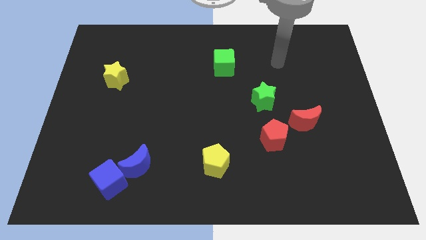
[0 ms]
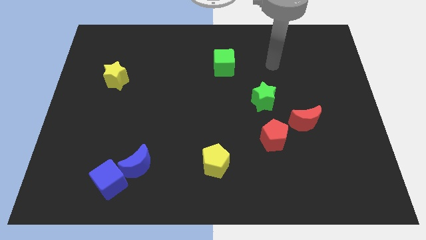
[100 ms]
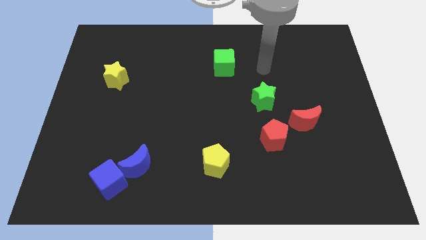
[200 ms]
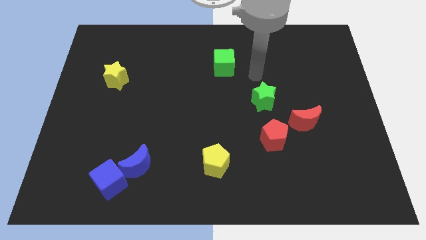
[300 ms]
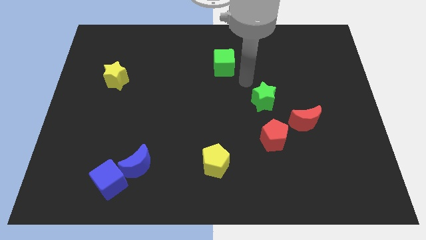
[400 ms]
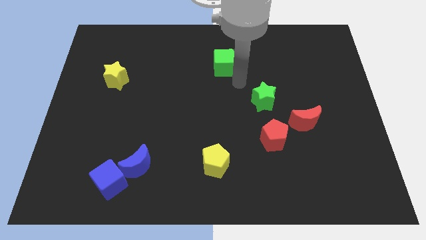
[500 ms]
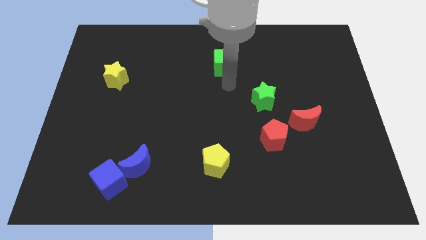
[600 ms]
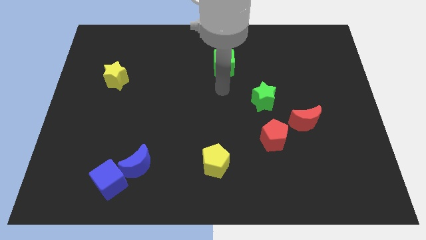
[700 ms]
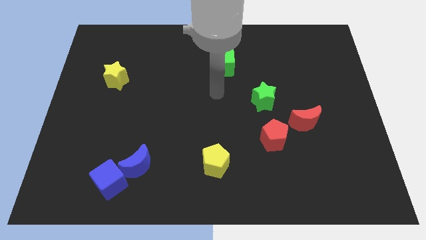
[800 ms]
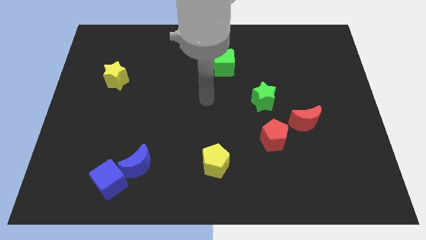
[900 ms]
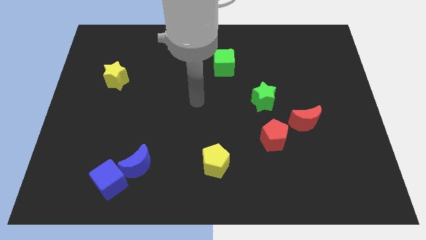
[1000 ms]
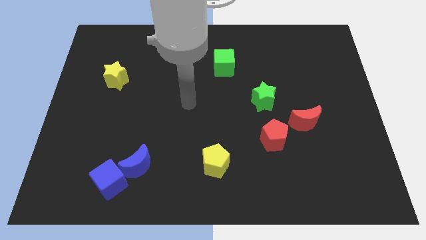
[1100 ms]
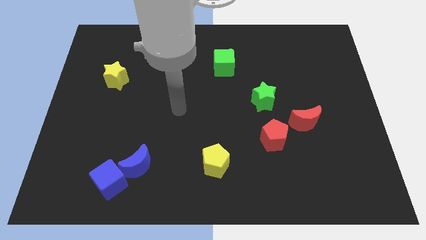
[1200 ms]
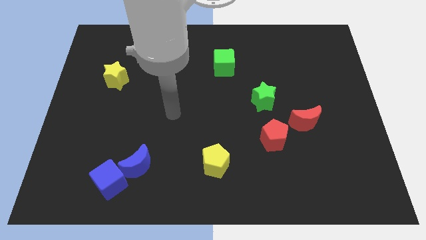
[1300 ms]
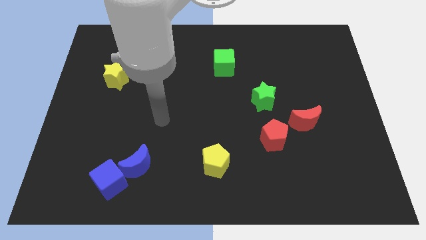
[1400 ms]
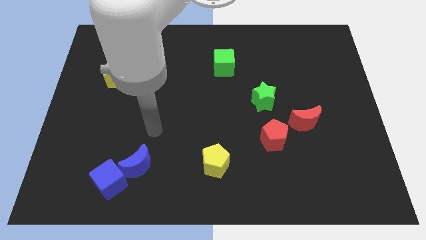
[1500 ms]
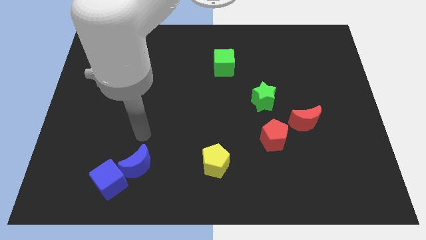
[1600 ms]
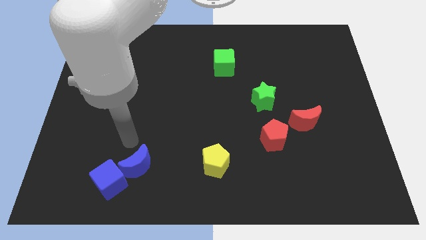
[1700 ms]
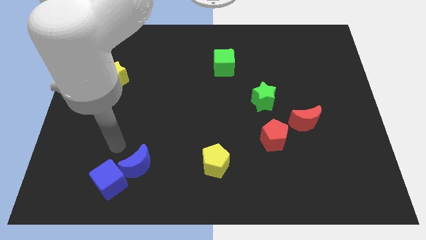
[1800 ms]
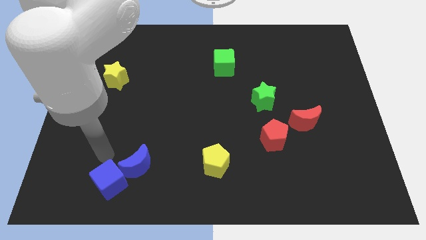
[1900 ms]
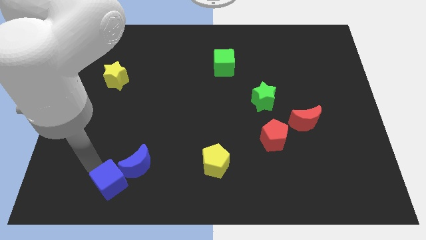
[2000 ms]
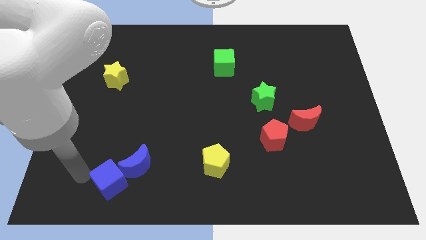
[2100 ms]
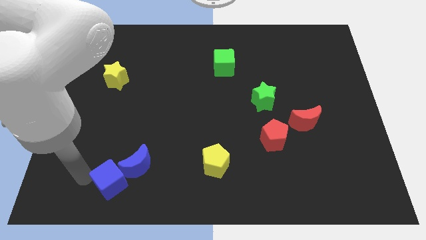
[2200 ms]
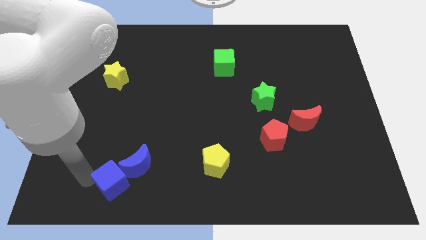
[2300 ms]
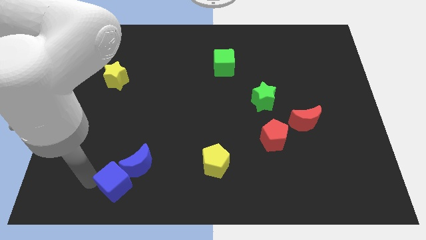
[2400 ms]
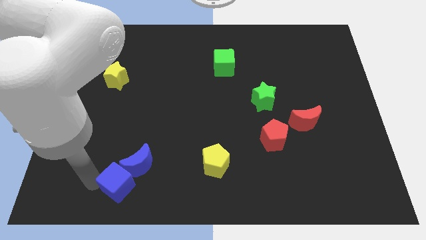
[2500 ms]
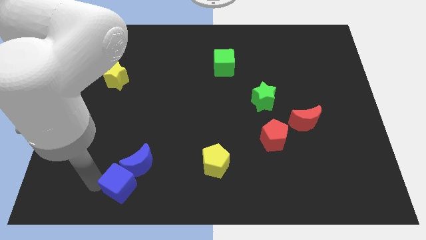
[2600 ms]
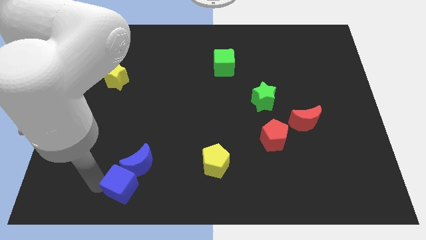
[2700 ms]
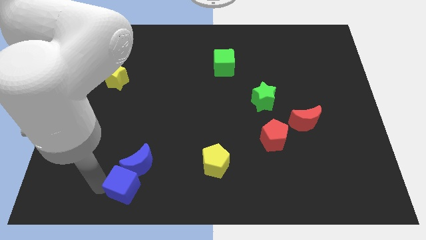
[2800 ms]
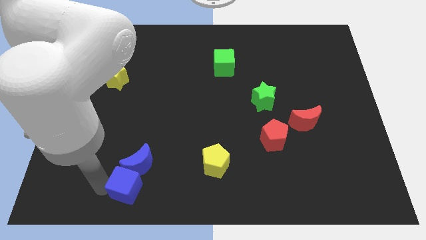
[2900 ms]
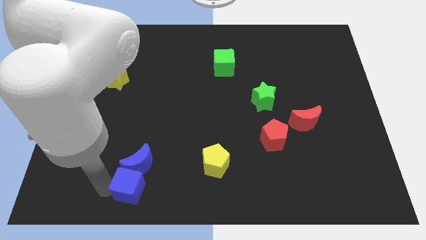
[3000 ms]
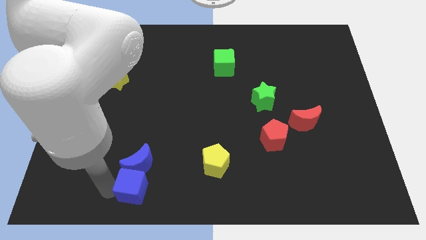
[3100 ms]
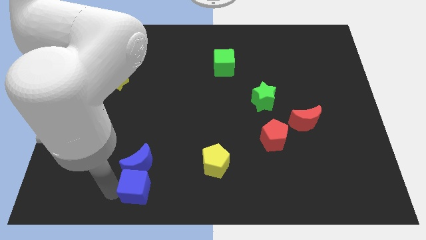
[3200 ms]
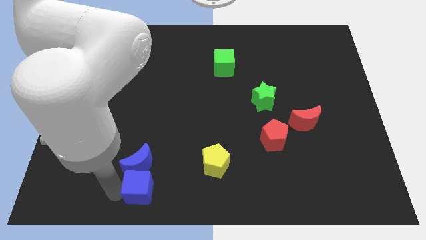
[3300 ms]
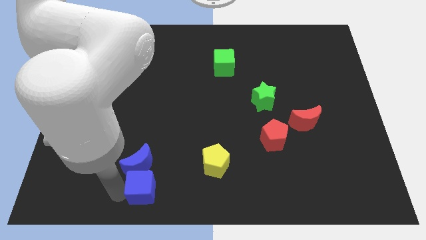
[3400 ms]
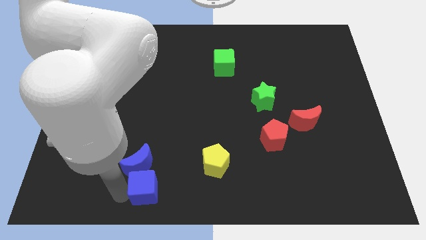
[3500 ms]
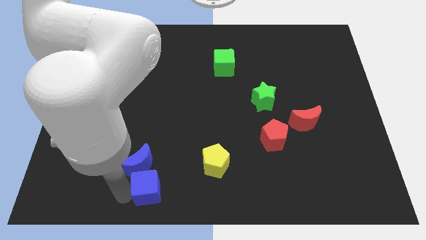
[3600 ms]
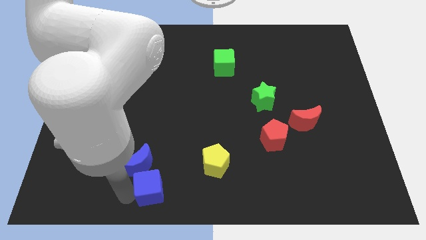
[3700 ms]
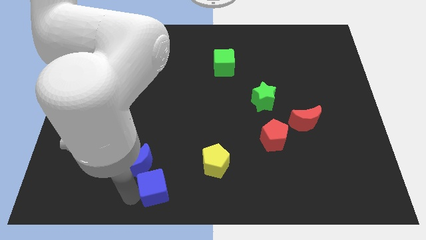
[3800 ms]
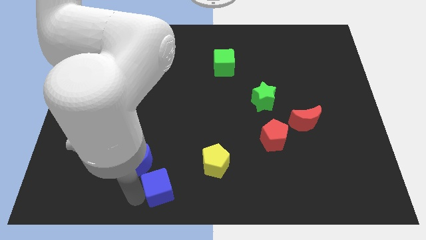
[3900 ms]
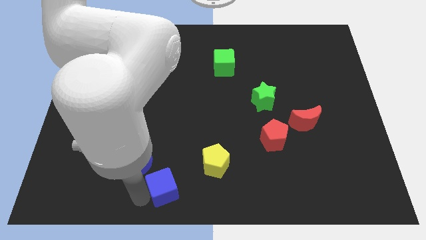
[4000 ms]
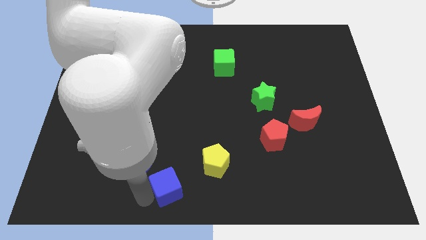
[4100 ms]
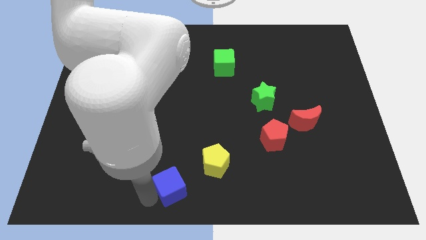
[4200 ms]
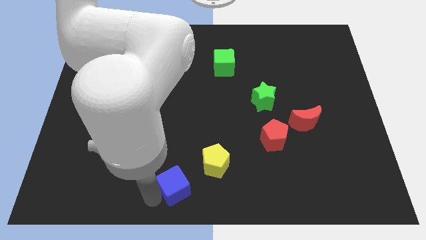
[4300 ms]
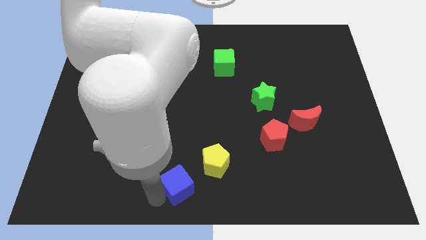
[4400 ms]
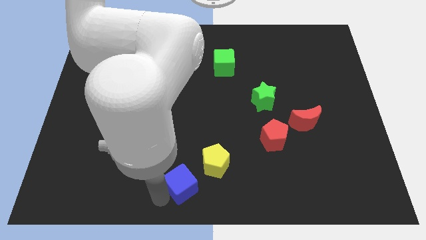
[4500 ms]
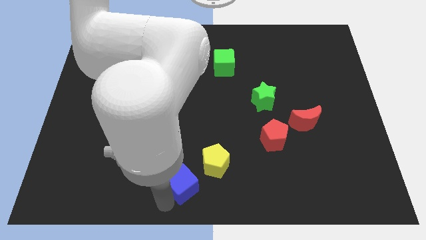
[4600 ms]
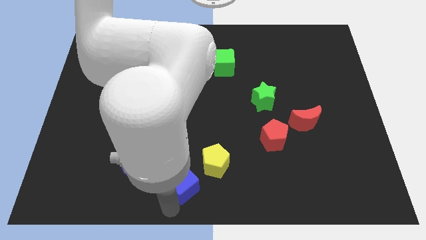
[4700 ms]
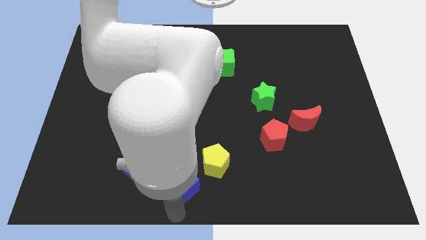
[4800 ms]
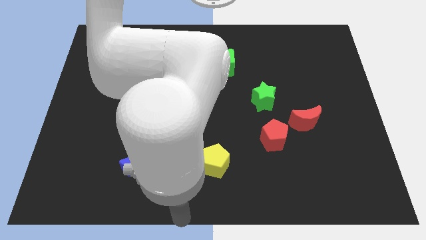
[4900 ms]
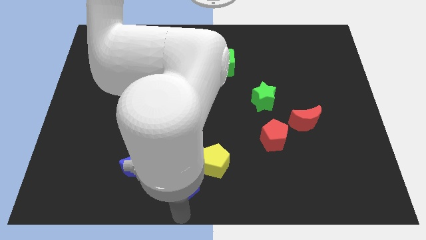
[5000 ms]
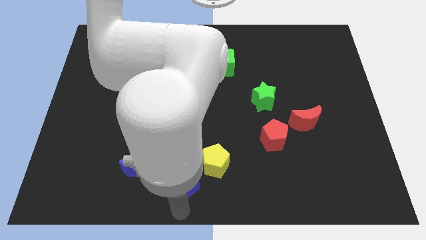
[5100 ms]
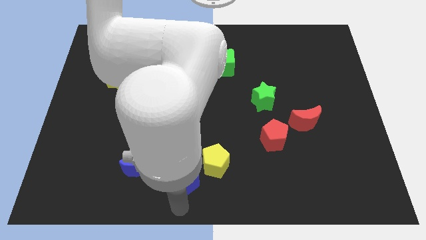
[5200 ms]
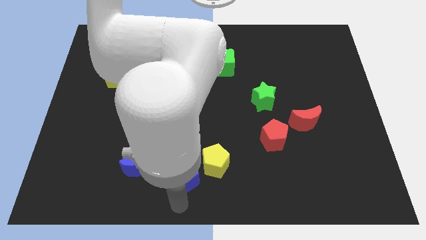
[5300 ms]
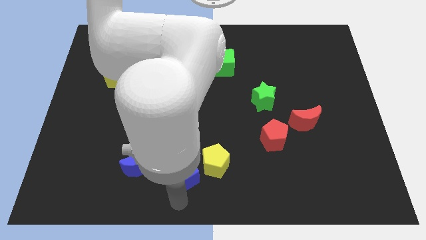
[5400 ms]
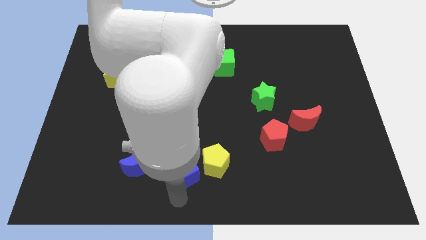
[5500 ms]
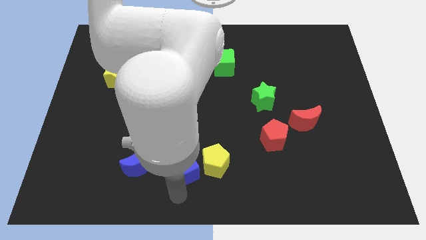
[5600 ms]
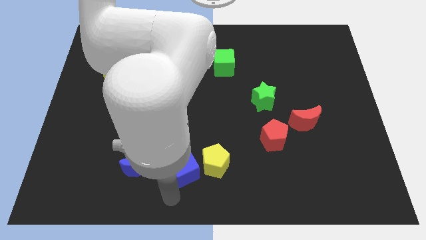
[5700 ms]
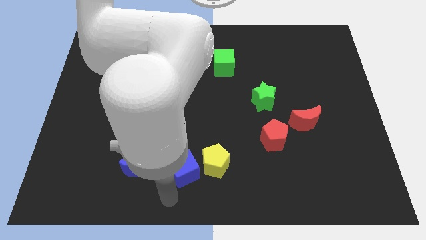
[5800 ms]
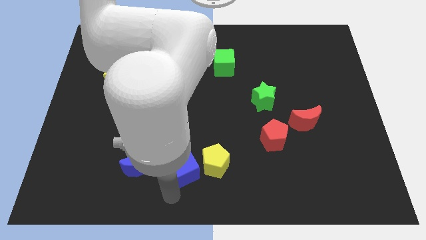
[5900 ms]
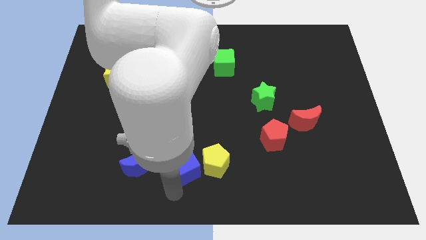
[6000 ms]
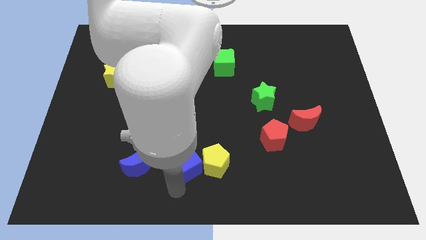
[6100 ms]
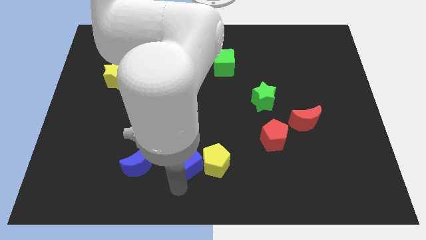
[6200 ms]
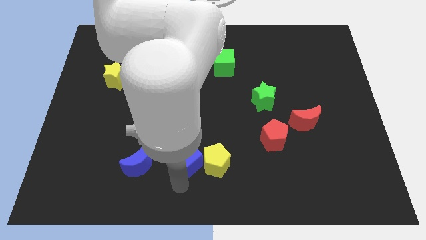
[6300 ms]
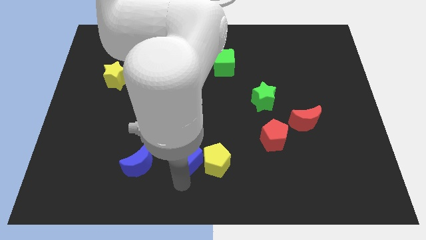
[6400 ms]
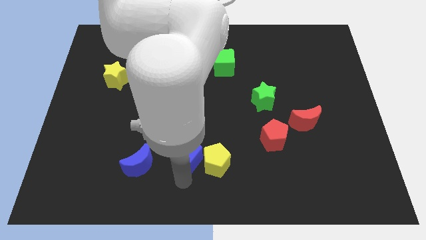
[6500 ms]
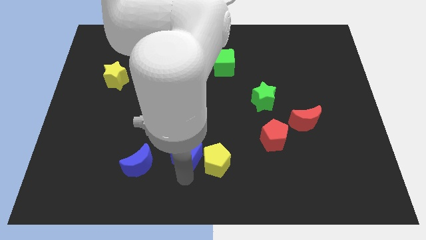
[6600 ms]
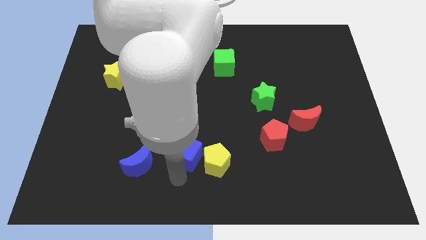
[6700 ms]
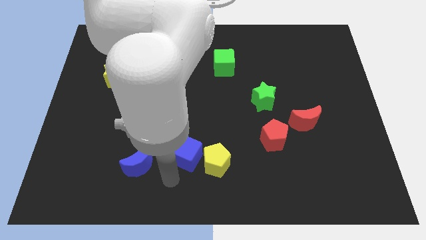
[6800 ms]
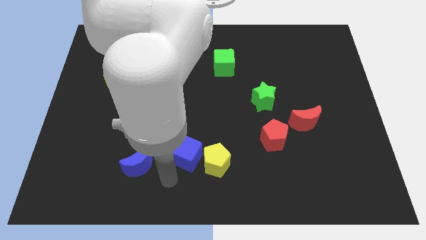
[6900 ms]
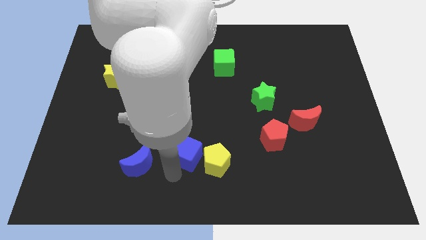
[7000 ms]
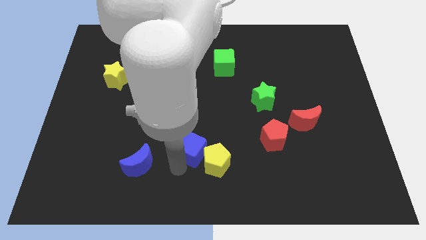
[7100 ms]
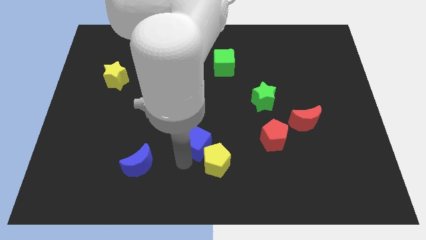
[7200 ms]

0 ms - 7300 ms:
push the blue cube to the top of the yellow pentagon
